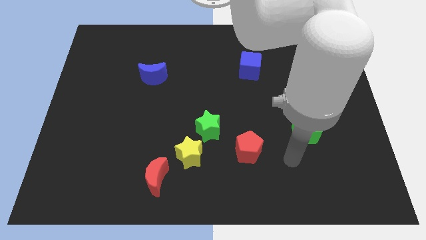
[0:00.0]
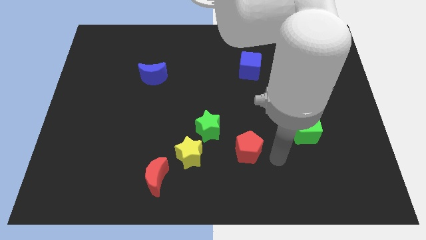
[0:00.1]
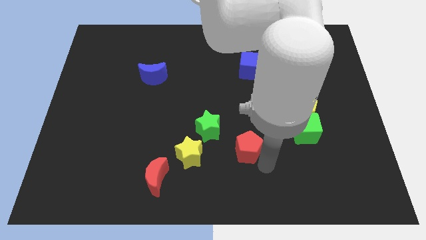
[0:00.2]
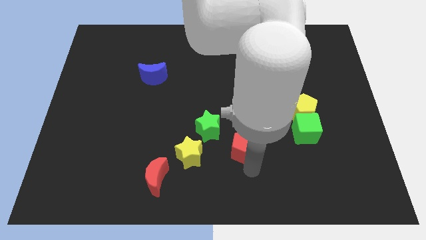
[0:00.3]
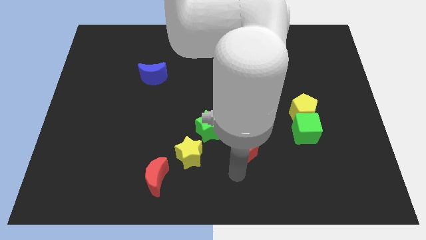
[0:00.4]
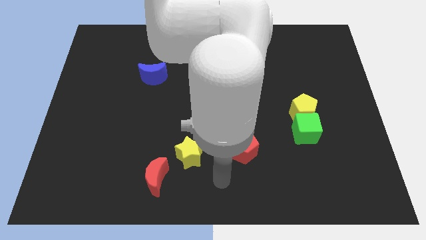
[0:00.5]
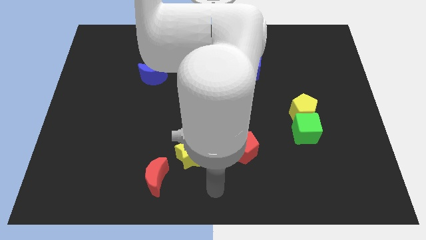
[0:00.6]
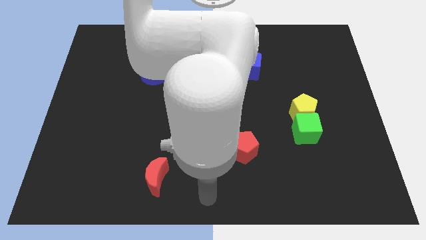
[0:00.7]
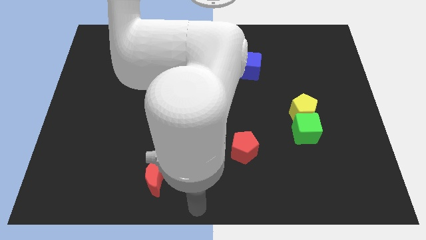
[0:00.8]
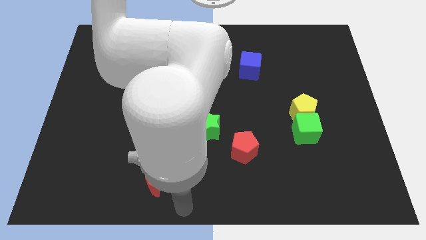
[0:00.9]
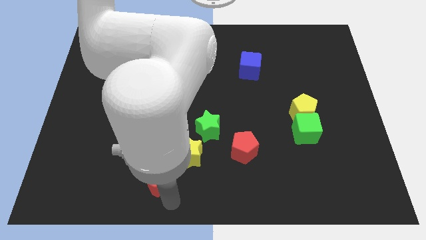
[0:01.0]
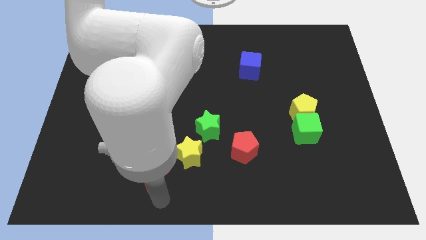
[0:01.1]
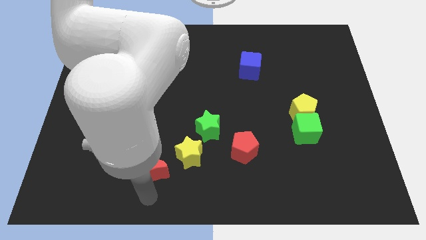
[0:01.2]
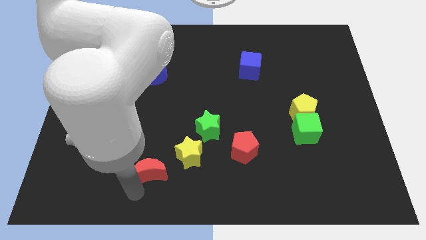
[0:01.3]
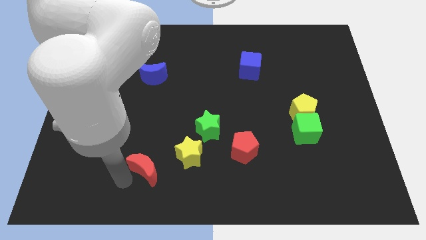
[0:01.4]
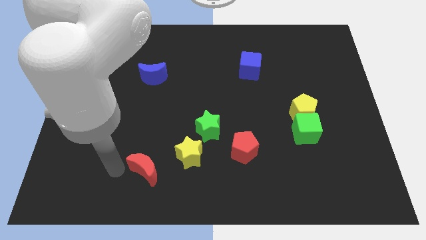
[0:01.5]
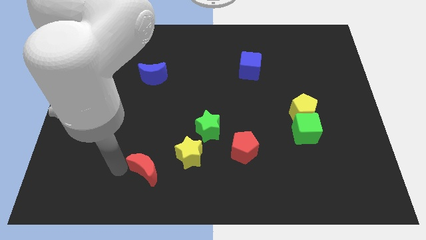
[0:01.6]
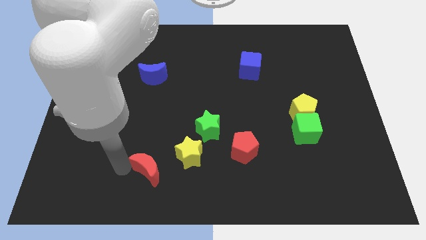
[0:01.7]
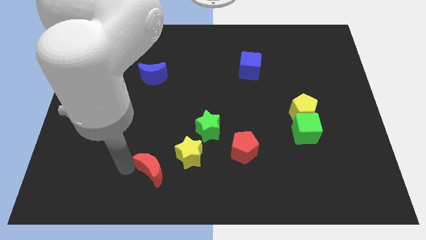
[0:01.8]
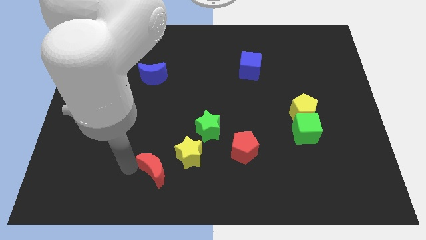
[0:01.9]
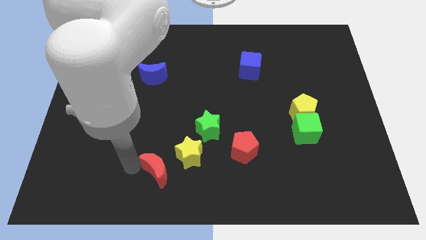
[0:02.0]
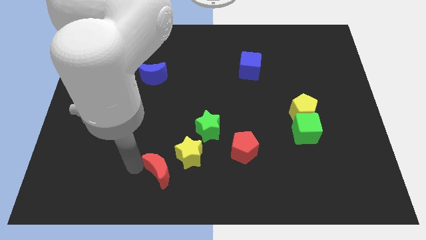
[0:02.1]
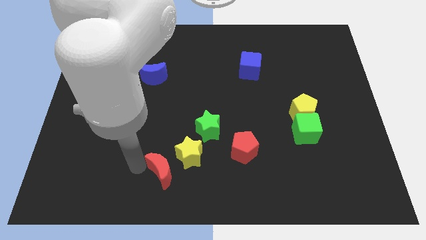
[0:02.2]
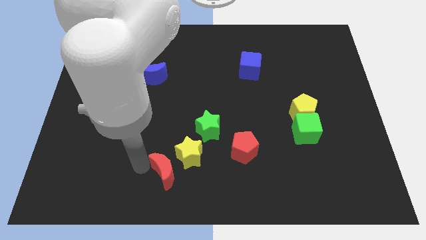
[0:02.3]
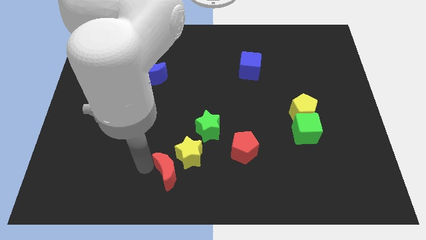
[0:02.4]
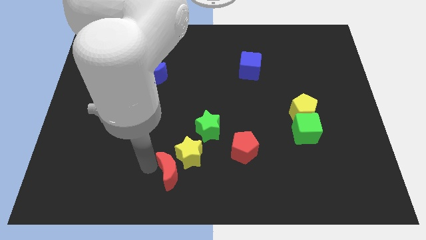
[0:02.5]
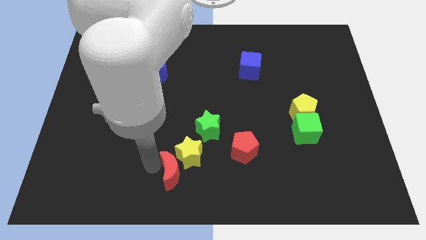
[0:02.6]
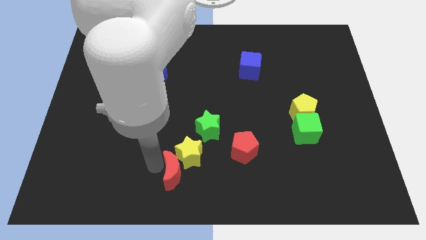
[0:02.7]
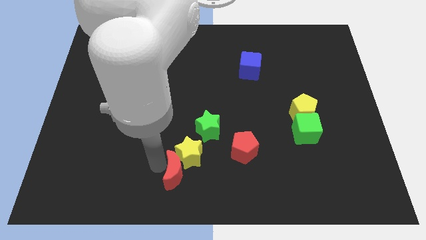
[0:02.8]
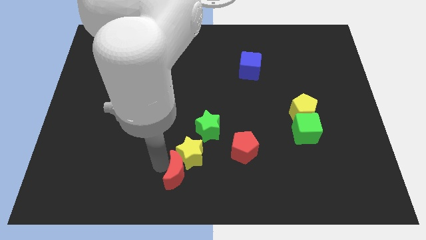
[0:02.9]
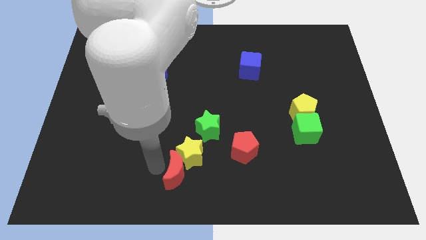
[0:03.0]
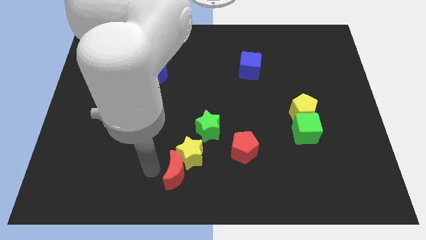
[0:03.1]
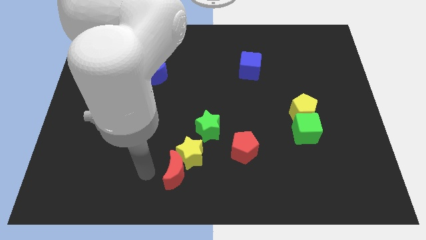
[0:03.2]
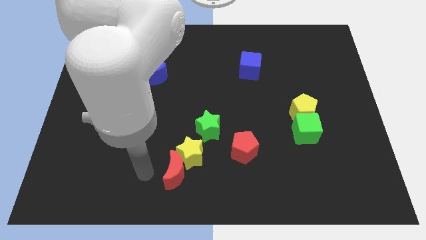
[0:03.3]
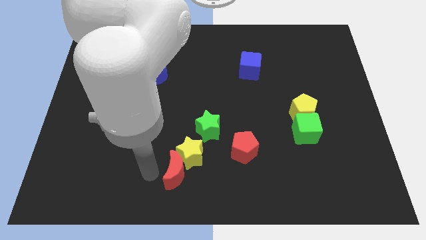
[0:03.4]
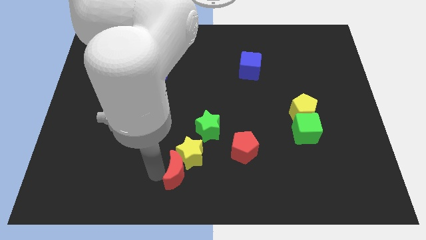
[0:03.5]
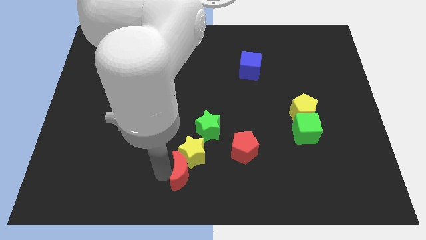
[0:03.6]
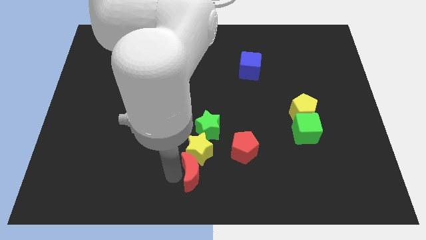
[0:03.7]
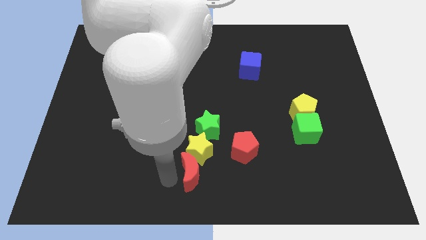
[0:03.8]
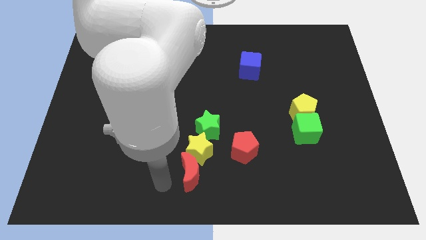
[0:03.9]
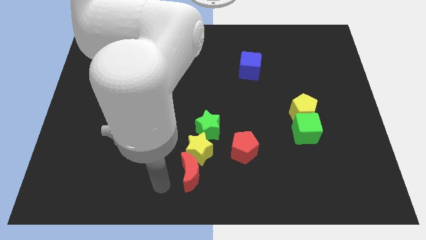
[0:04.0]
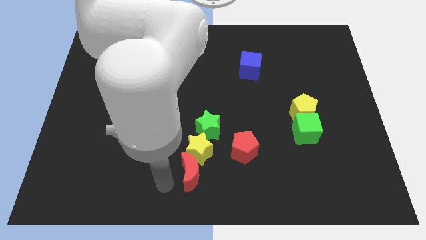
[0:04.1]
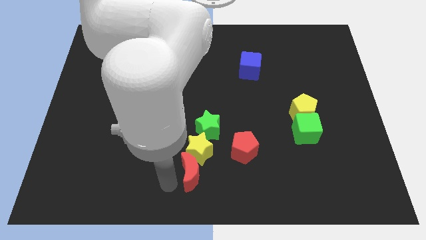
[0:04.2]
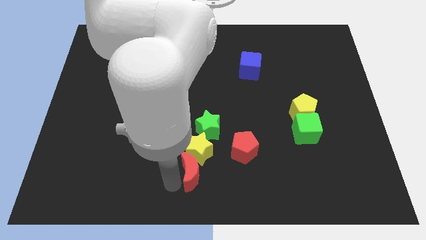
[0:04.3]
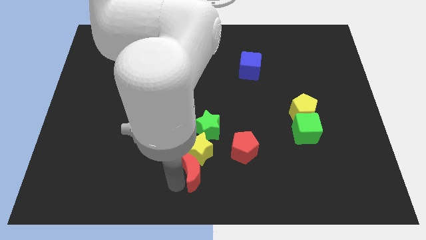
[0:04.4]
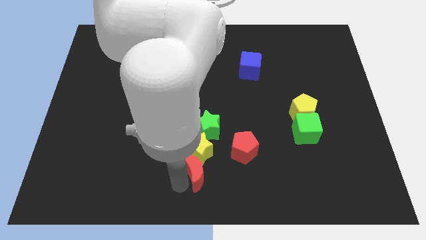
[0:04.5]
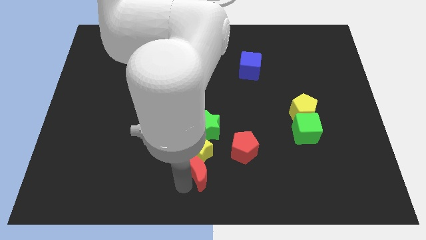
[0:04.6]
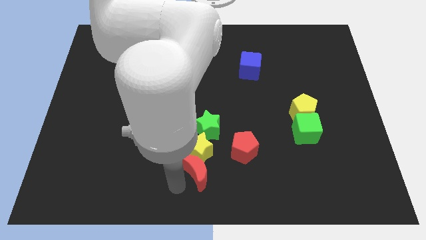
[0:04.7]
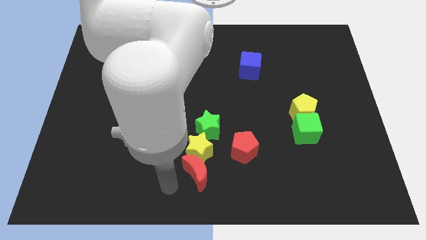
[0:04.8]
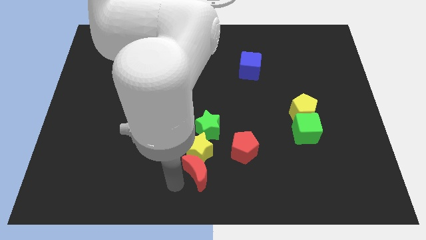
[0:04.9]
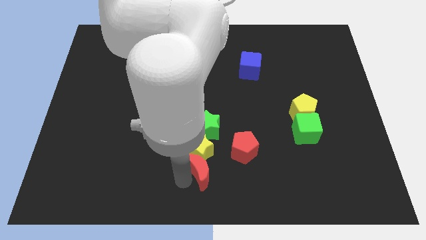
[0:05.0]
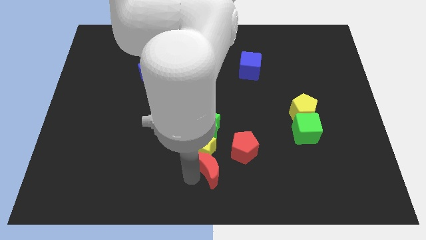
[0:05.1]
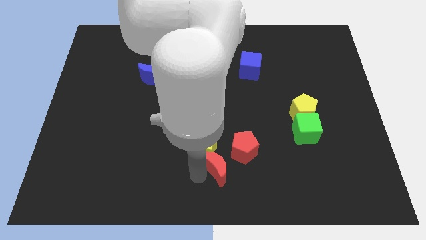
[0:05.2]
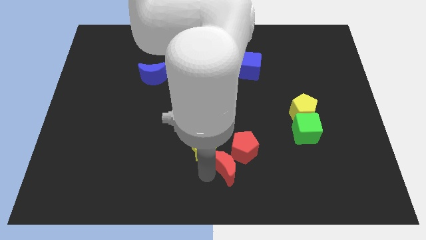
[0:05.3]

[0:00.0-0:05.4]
put the red moon to the red pentagon

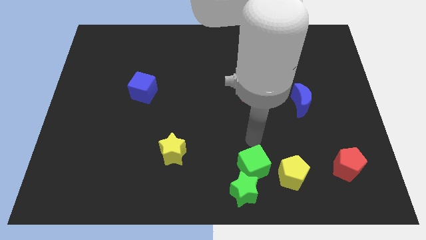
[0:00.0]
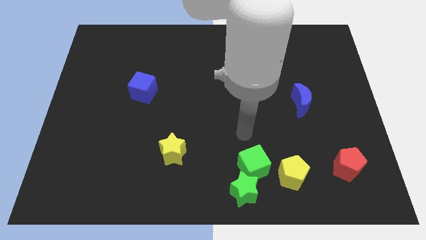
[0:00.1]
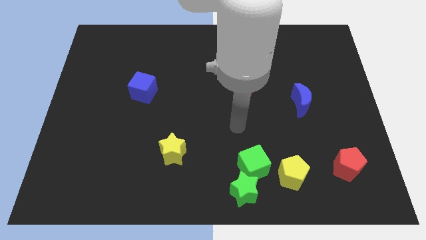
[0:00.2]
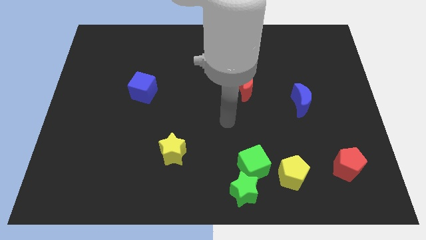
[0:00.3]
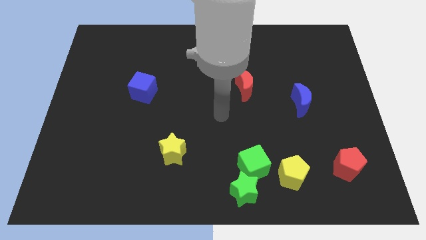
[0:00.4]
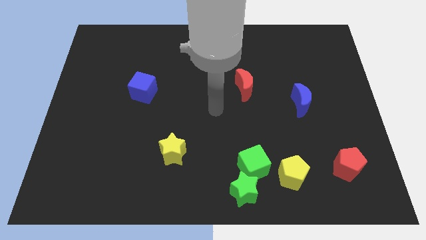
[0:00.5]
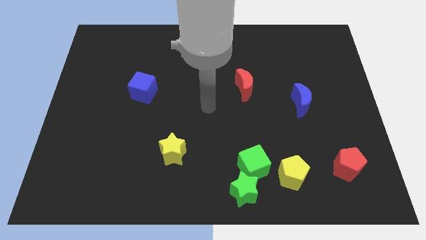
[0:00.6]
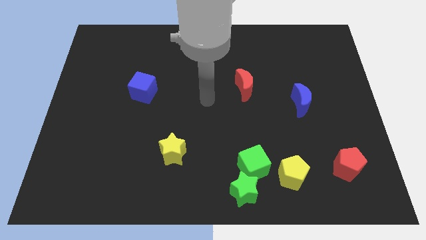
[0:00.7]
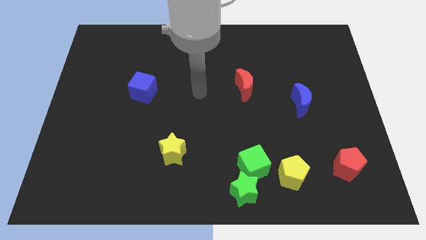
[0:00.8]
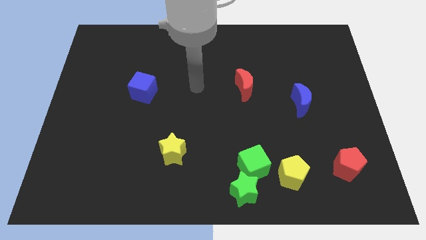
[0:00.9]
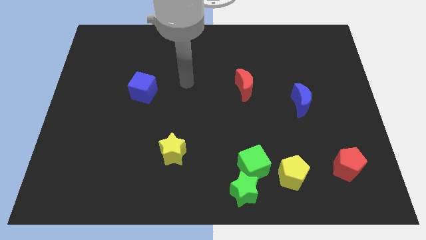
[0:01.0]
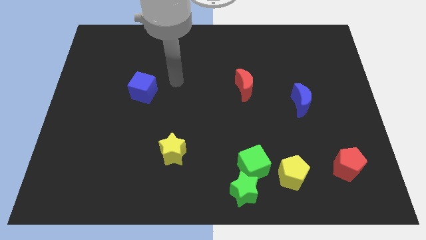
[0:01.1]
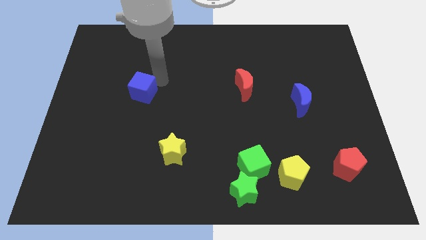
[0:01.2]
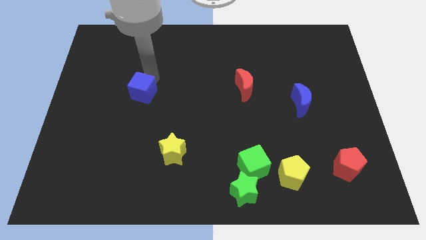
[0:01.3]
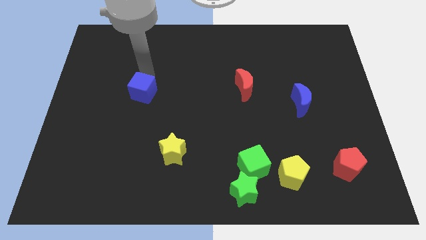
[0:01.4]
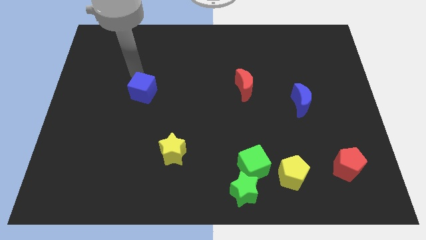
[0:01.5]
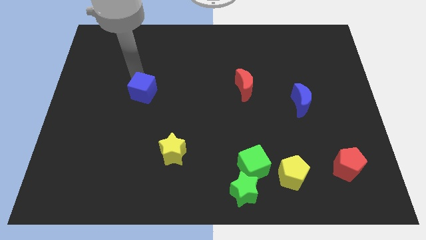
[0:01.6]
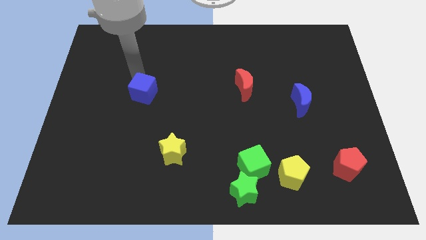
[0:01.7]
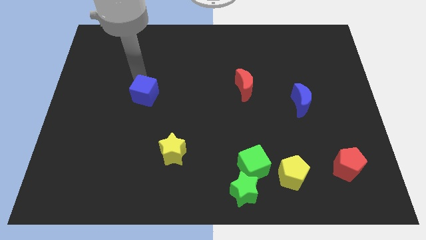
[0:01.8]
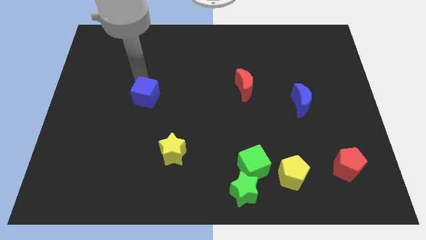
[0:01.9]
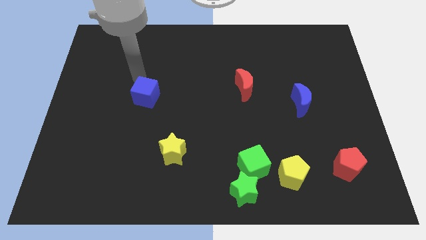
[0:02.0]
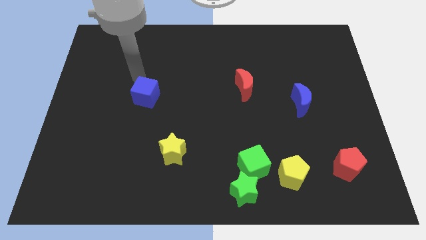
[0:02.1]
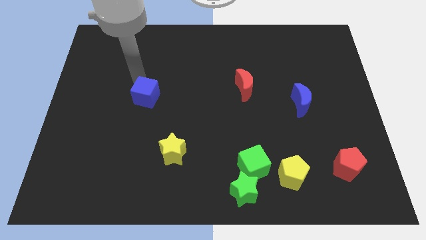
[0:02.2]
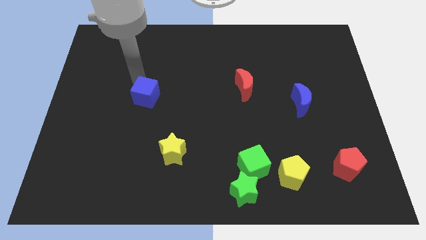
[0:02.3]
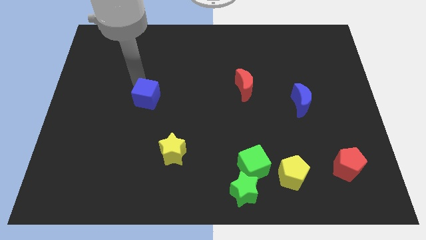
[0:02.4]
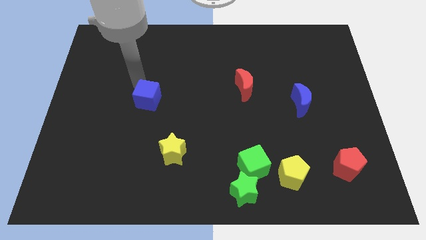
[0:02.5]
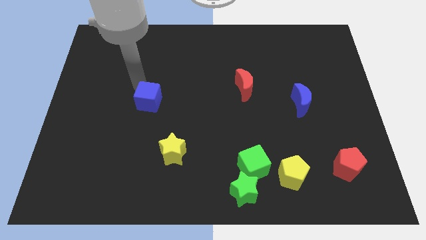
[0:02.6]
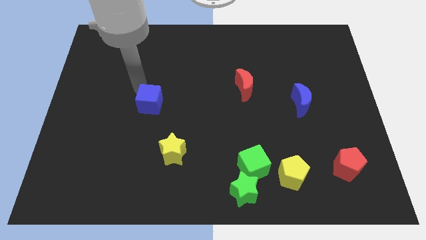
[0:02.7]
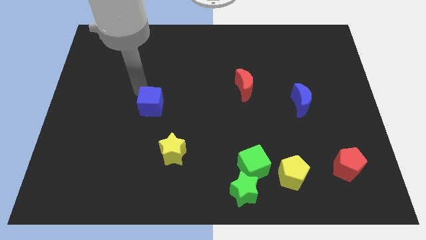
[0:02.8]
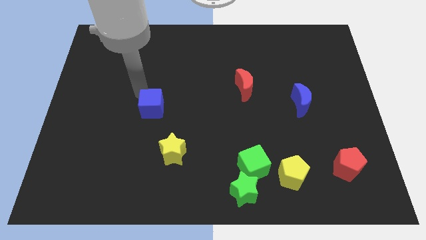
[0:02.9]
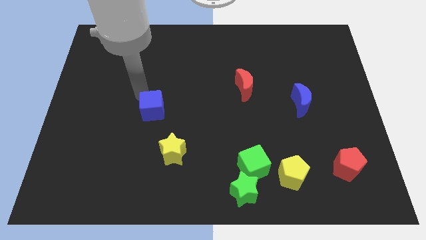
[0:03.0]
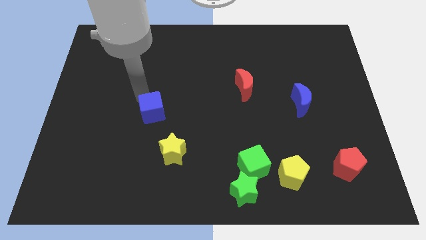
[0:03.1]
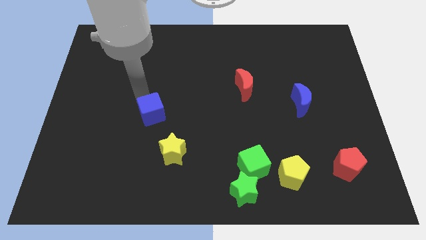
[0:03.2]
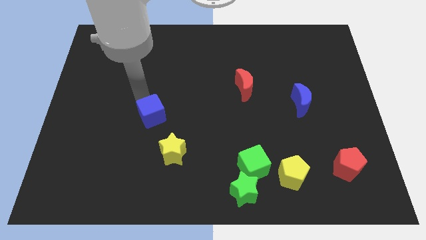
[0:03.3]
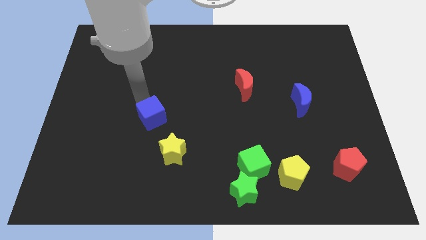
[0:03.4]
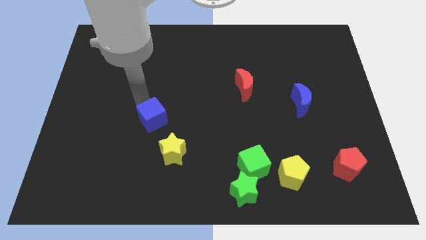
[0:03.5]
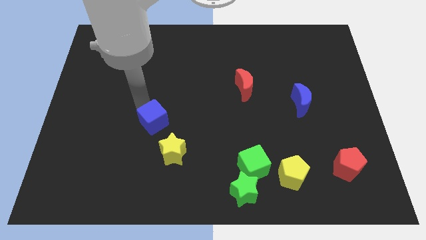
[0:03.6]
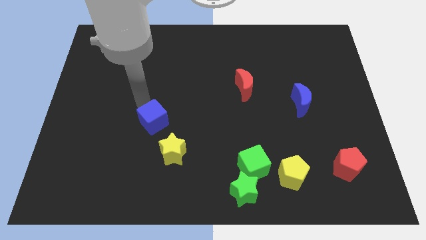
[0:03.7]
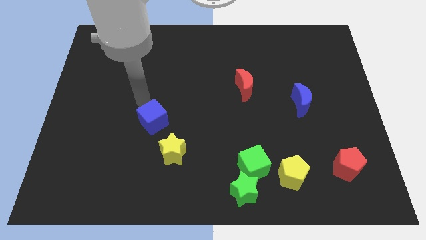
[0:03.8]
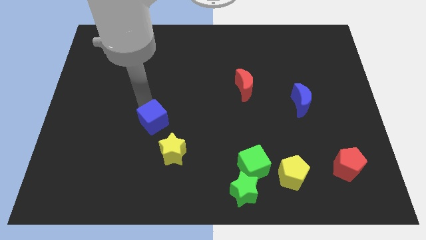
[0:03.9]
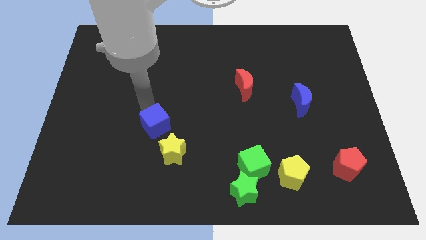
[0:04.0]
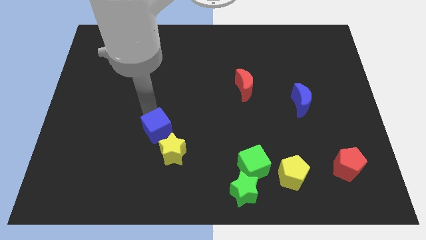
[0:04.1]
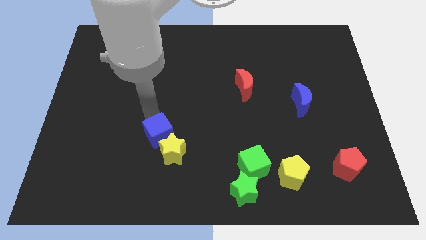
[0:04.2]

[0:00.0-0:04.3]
move the blue cube towards the yellow star
